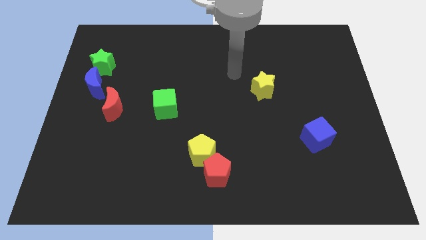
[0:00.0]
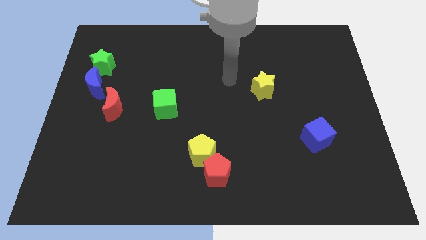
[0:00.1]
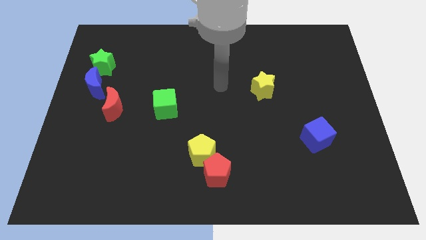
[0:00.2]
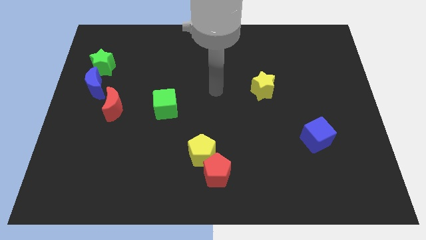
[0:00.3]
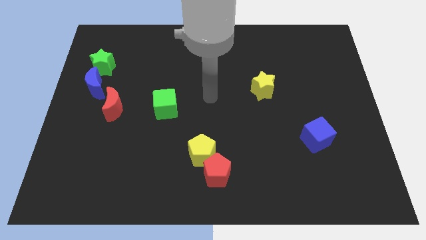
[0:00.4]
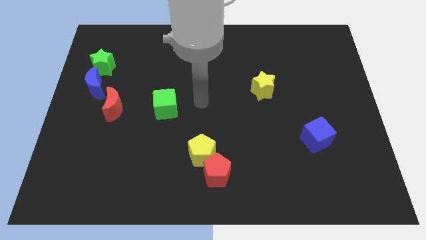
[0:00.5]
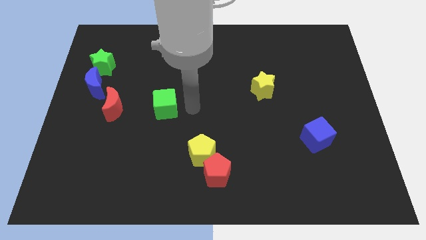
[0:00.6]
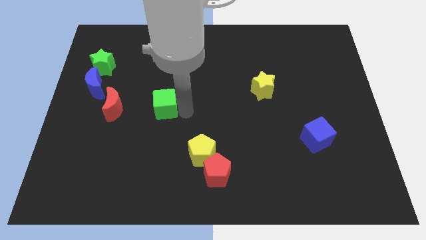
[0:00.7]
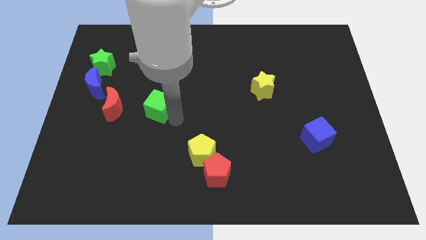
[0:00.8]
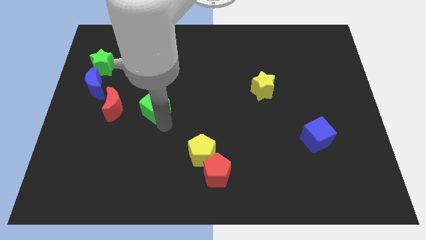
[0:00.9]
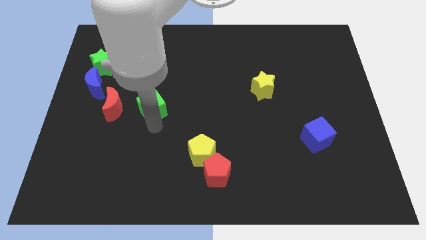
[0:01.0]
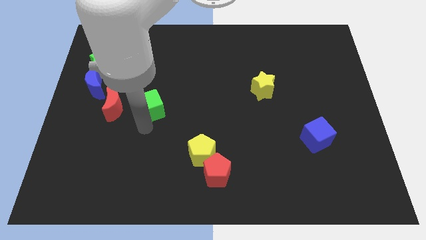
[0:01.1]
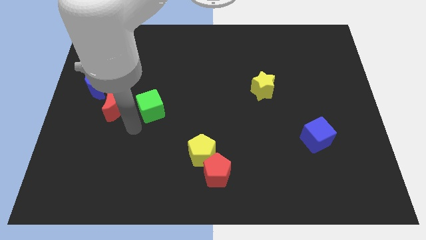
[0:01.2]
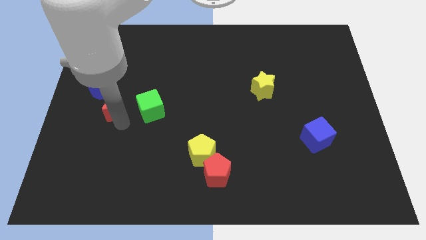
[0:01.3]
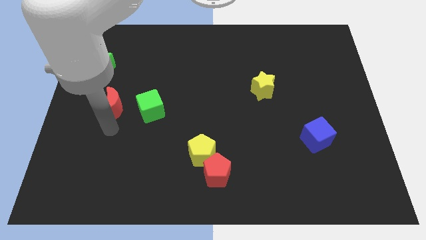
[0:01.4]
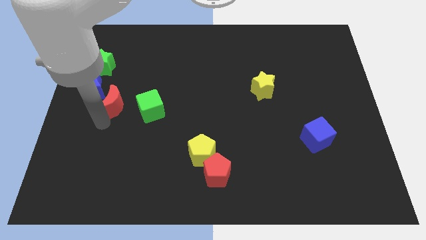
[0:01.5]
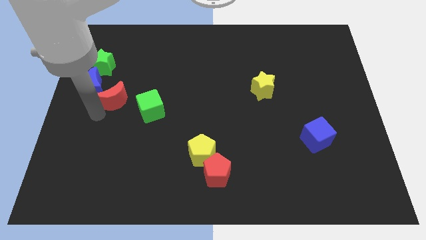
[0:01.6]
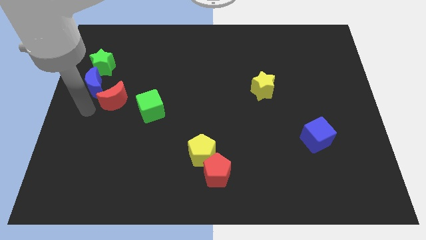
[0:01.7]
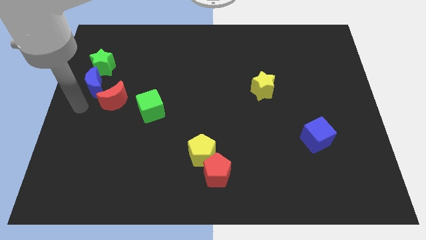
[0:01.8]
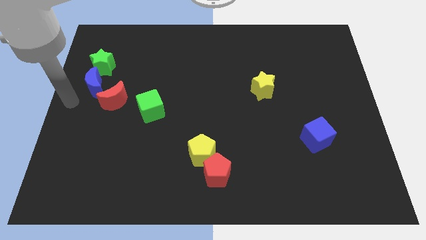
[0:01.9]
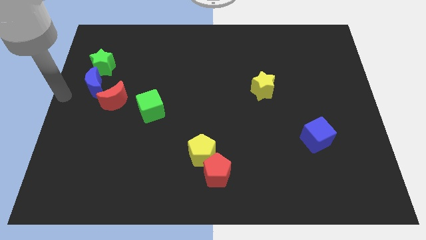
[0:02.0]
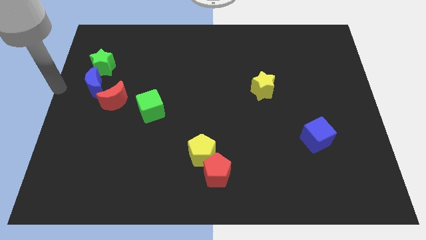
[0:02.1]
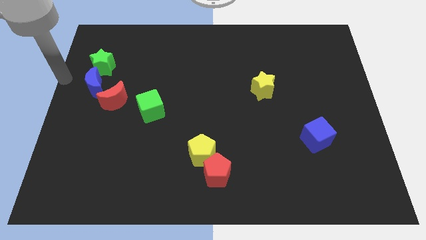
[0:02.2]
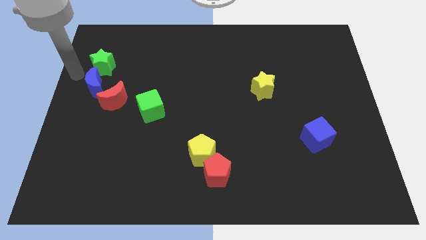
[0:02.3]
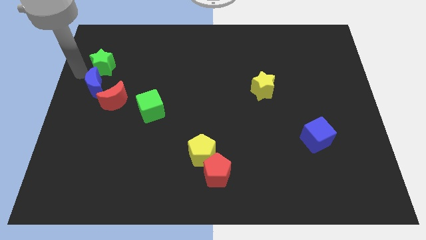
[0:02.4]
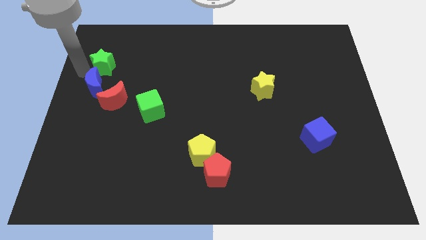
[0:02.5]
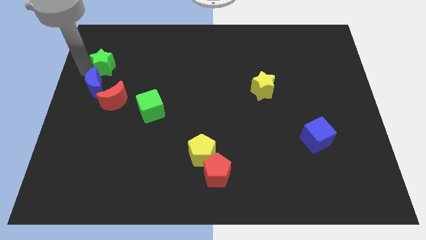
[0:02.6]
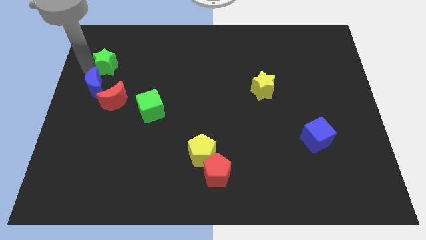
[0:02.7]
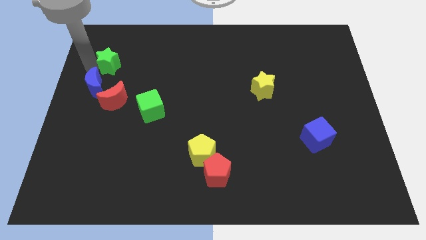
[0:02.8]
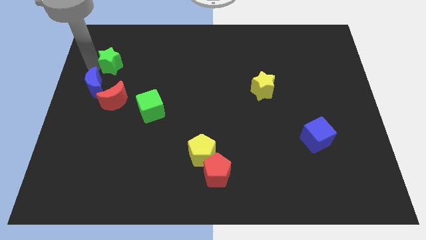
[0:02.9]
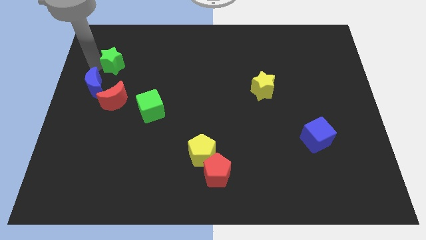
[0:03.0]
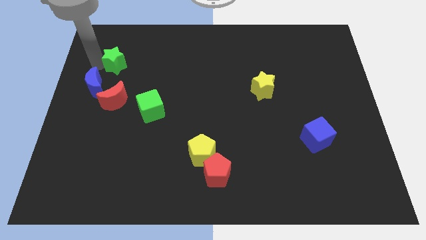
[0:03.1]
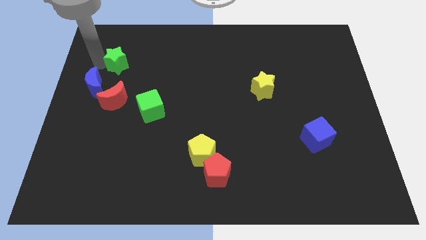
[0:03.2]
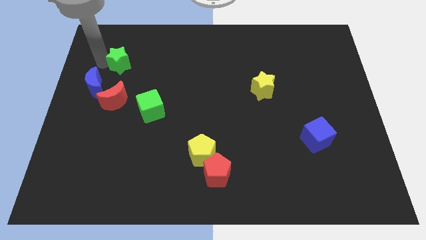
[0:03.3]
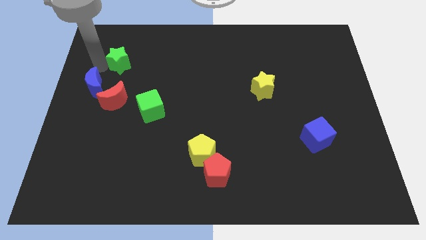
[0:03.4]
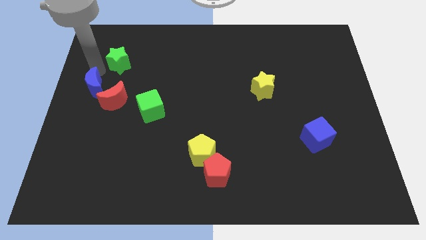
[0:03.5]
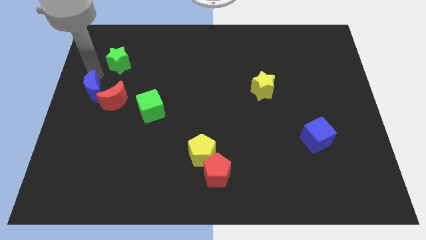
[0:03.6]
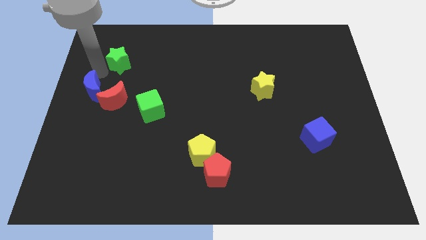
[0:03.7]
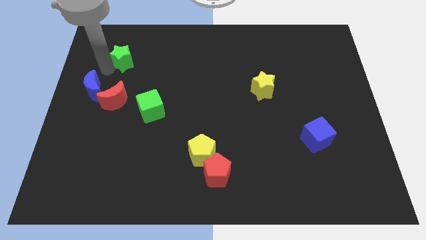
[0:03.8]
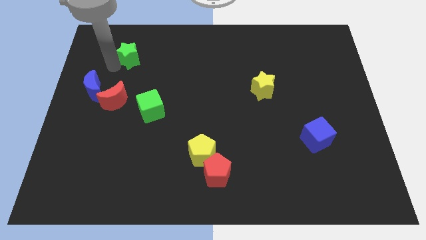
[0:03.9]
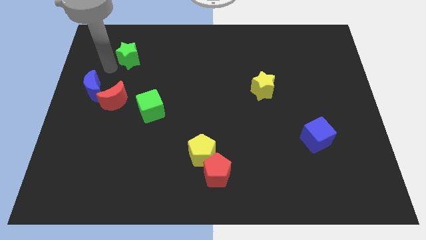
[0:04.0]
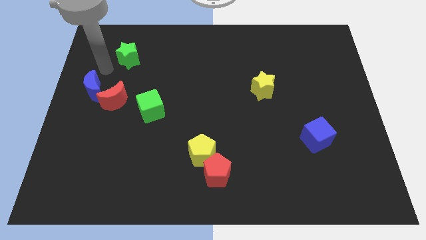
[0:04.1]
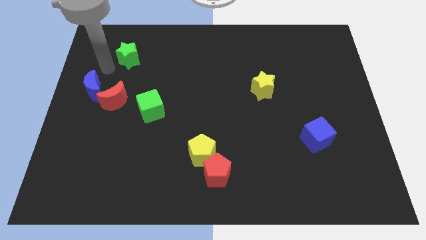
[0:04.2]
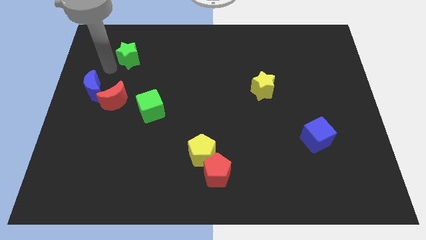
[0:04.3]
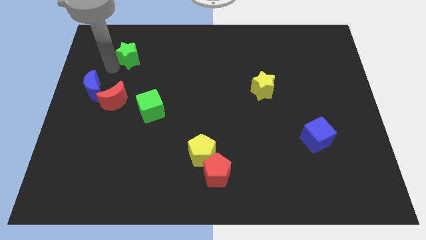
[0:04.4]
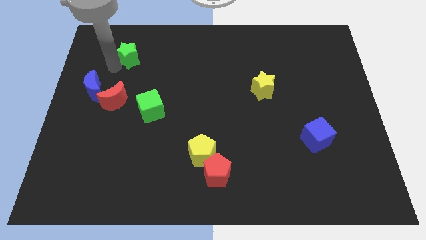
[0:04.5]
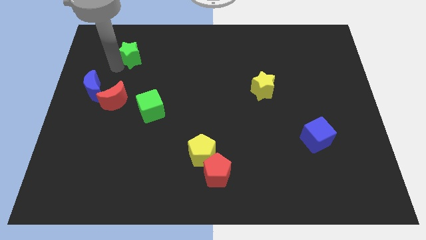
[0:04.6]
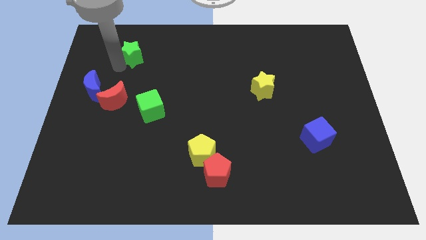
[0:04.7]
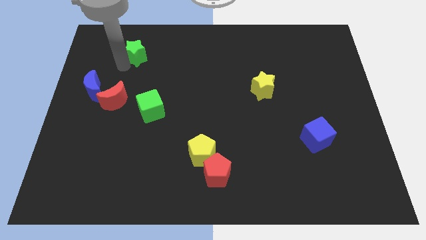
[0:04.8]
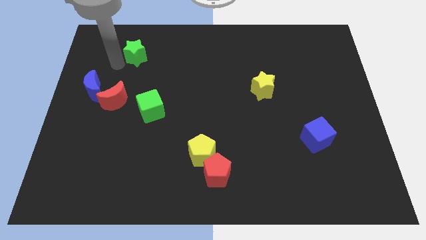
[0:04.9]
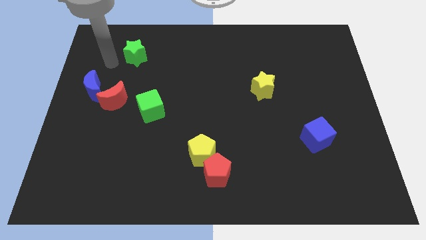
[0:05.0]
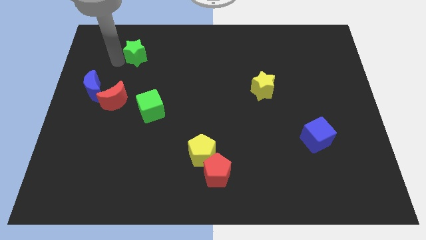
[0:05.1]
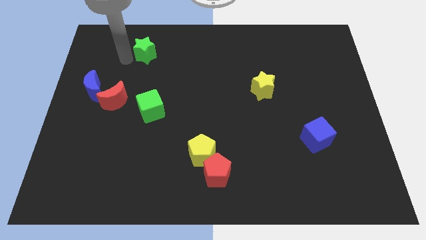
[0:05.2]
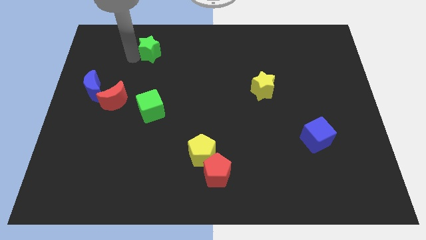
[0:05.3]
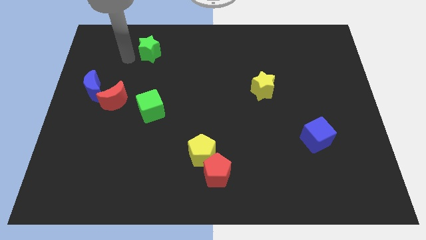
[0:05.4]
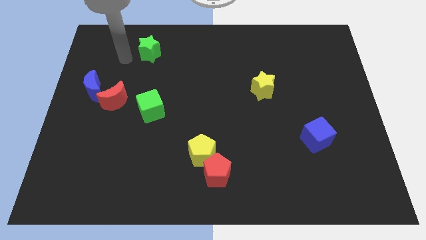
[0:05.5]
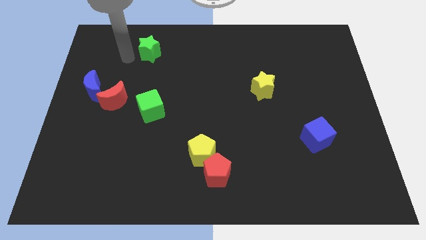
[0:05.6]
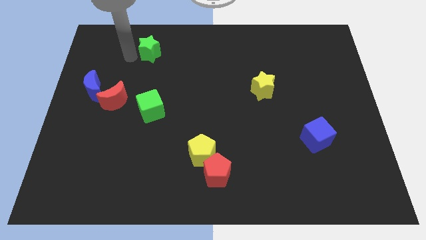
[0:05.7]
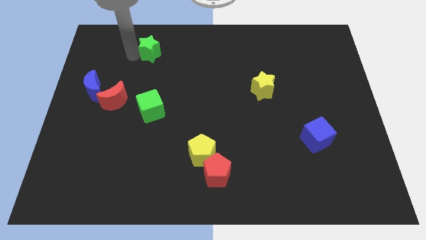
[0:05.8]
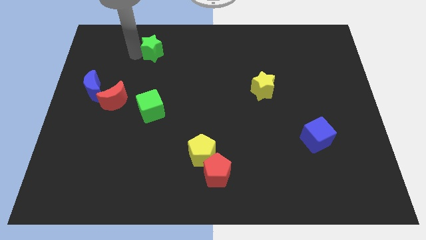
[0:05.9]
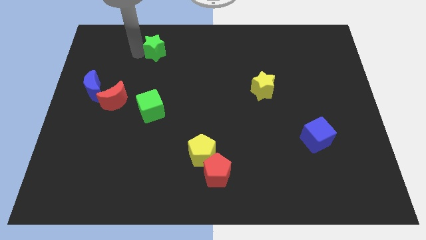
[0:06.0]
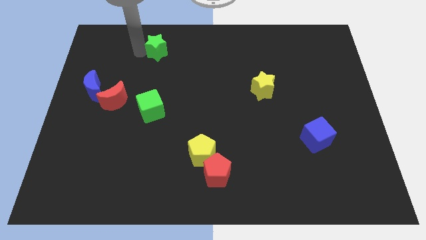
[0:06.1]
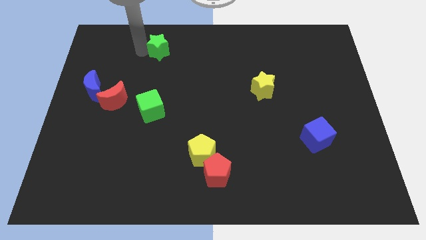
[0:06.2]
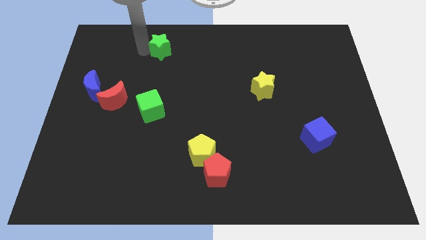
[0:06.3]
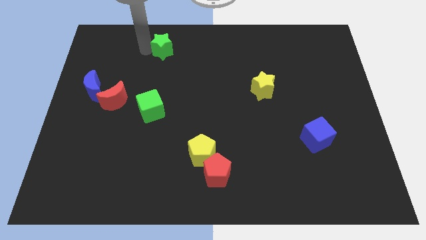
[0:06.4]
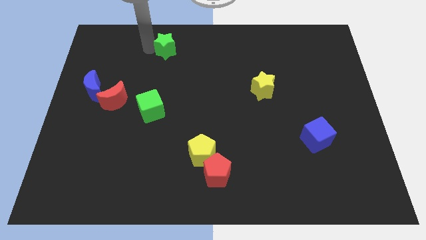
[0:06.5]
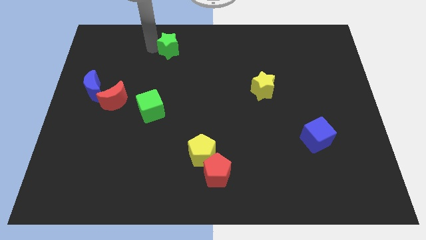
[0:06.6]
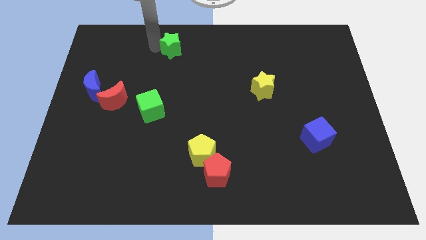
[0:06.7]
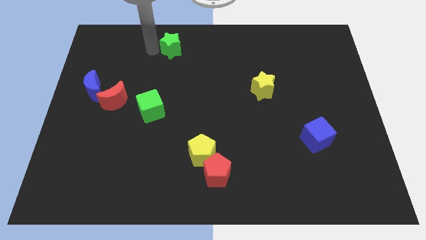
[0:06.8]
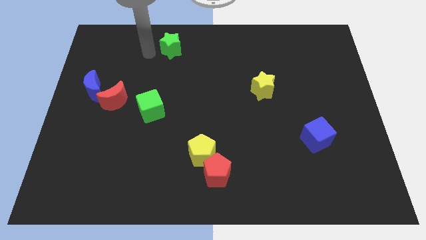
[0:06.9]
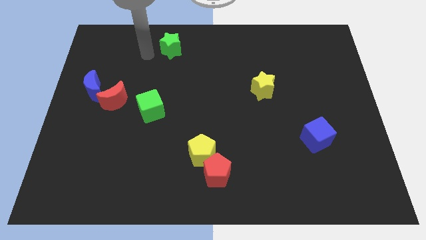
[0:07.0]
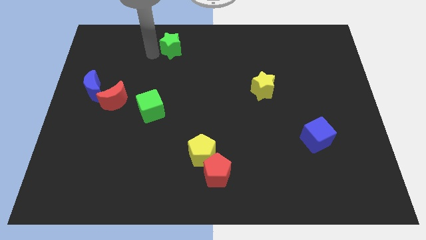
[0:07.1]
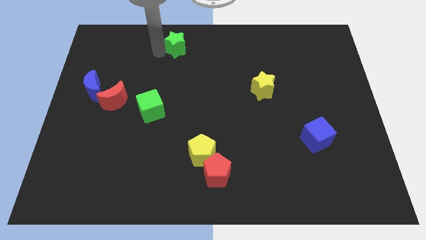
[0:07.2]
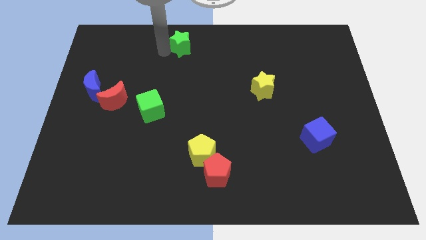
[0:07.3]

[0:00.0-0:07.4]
put the green star to the top side

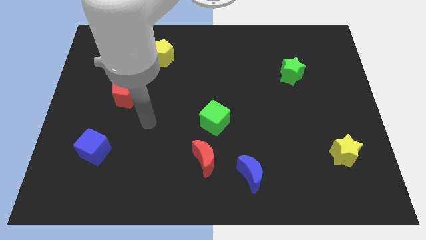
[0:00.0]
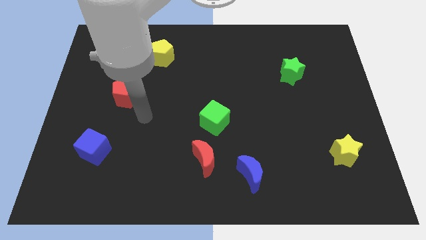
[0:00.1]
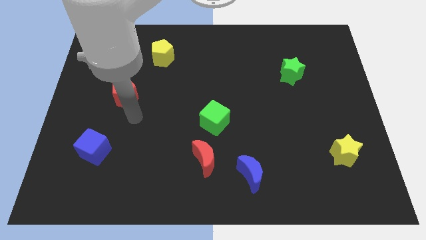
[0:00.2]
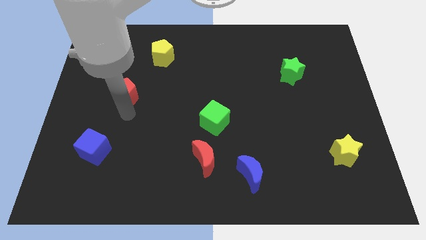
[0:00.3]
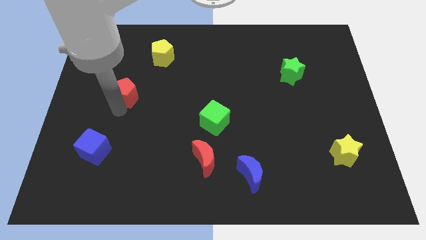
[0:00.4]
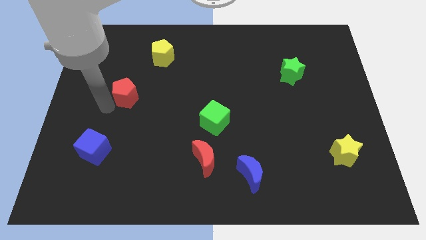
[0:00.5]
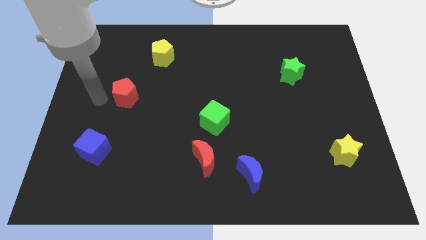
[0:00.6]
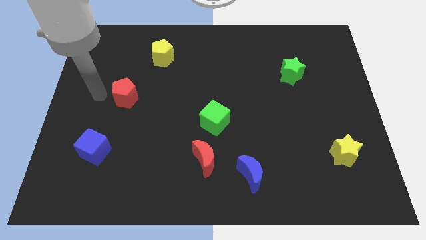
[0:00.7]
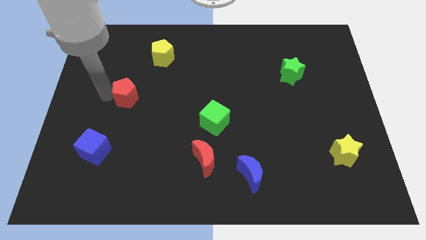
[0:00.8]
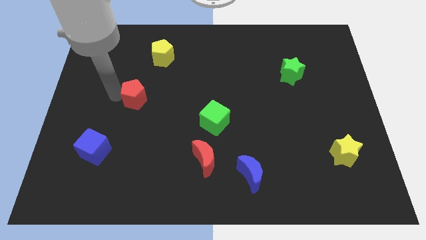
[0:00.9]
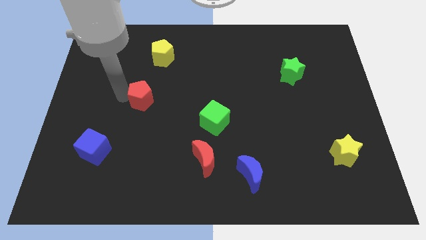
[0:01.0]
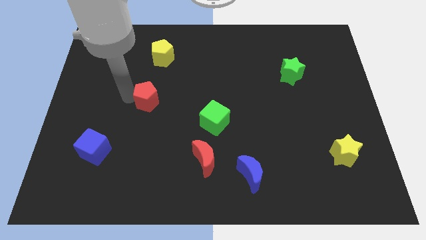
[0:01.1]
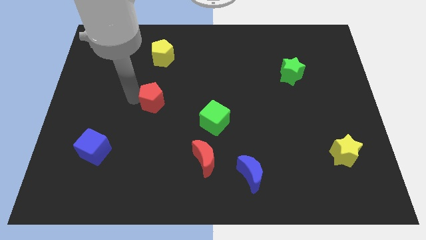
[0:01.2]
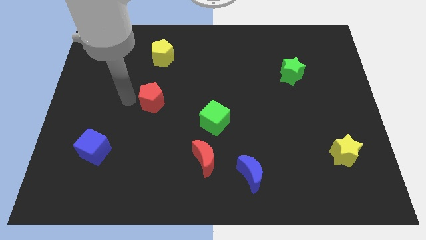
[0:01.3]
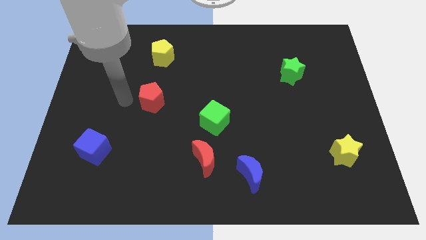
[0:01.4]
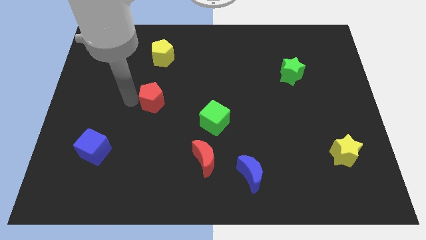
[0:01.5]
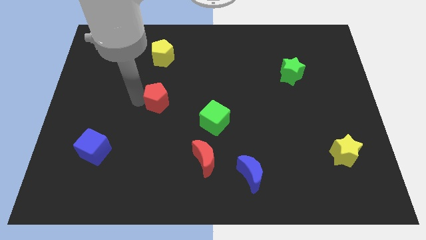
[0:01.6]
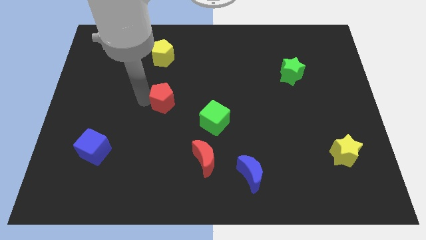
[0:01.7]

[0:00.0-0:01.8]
slide the red pentagon to the middle of the board
